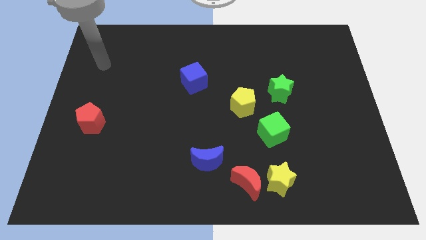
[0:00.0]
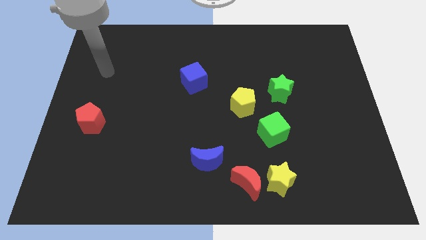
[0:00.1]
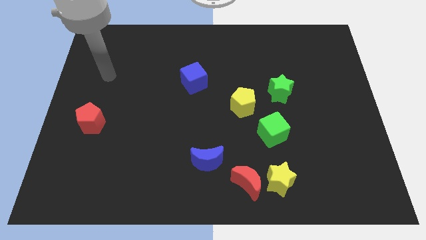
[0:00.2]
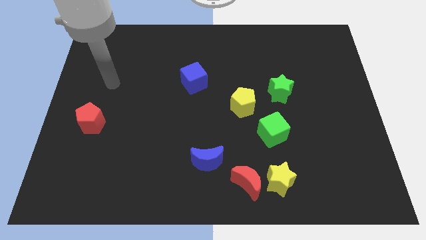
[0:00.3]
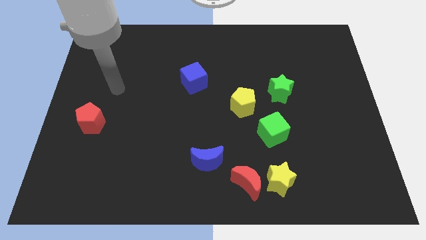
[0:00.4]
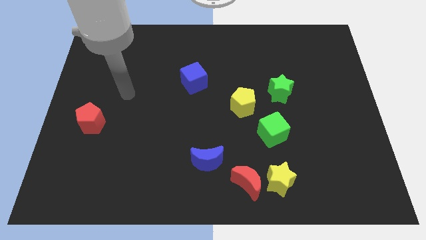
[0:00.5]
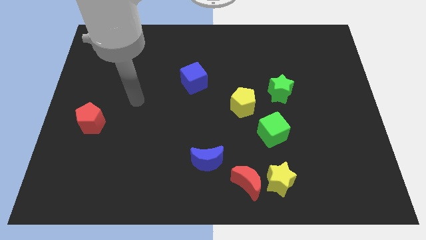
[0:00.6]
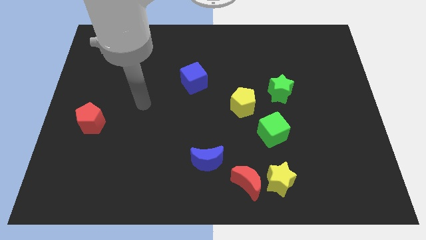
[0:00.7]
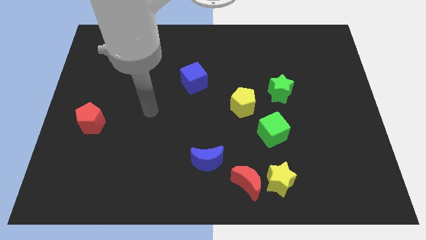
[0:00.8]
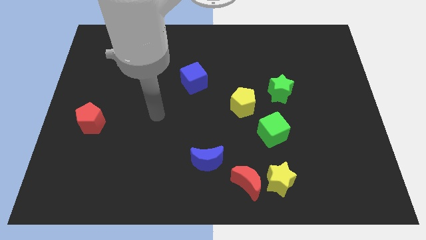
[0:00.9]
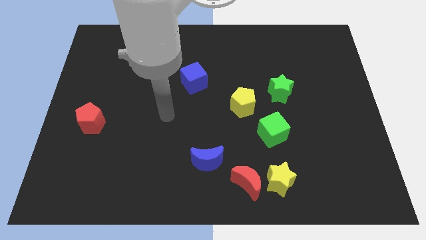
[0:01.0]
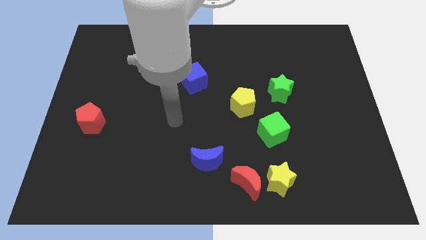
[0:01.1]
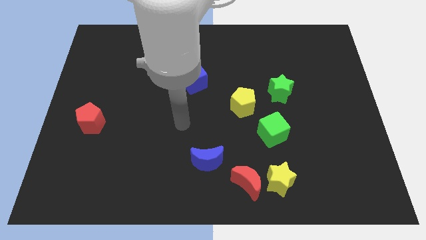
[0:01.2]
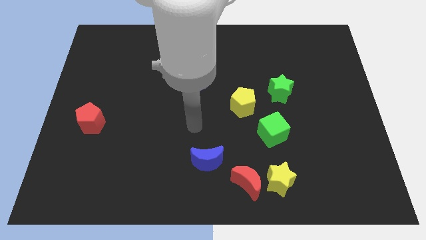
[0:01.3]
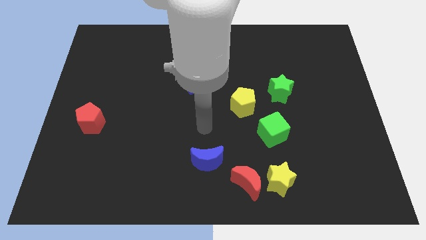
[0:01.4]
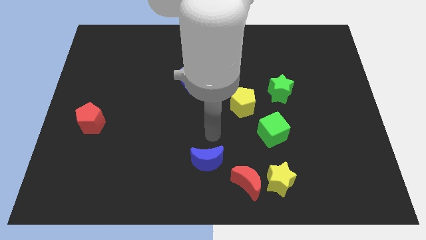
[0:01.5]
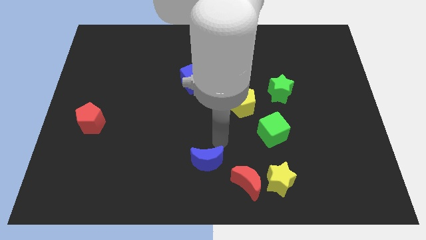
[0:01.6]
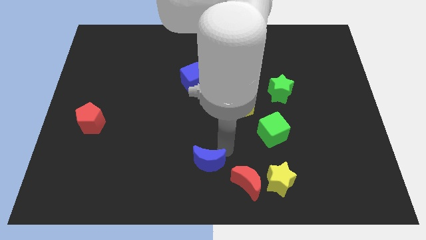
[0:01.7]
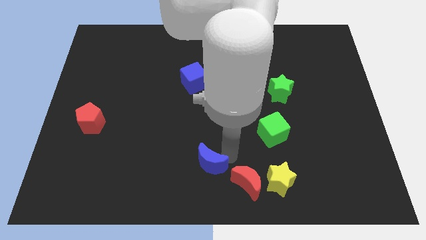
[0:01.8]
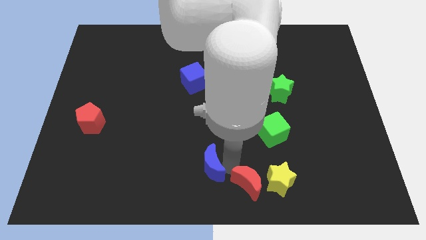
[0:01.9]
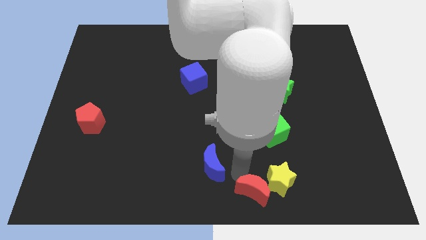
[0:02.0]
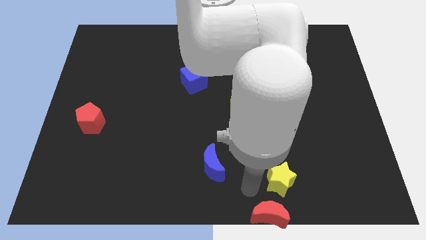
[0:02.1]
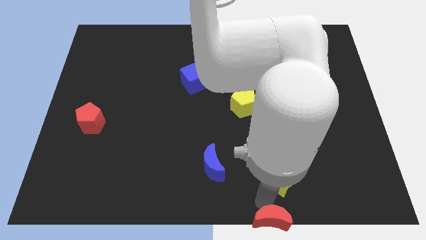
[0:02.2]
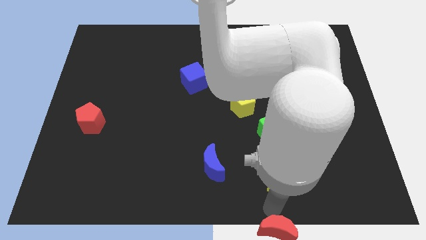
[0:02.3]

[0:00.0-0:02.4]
pull the yellow star apart from the red moon

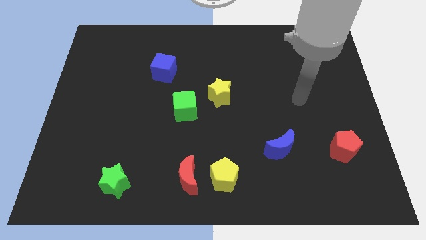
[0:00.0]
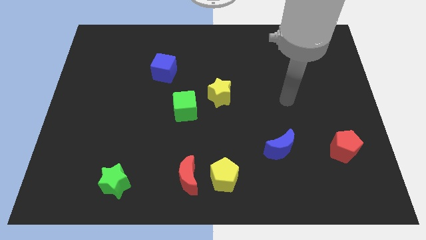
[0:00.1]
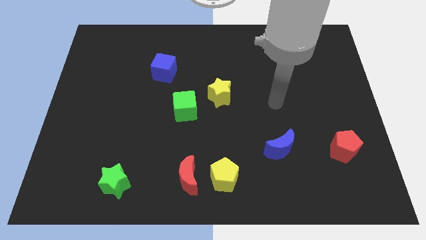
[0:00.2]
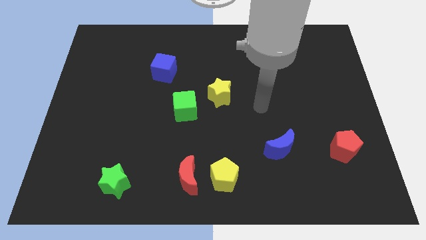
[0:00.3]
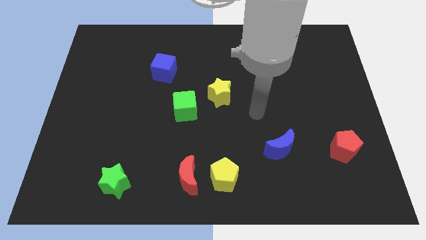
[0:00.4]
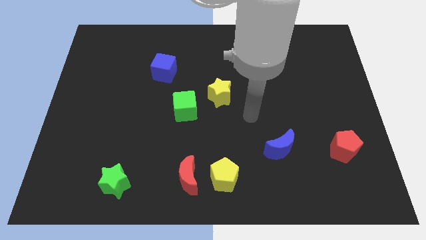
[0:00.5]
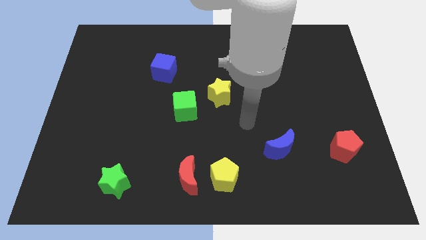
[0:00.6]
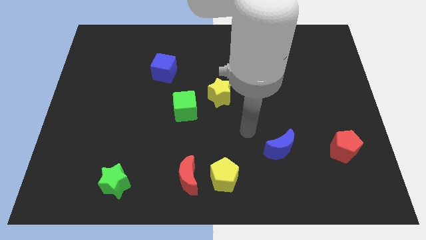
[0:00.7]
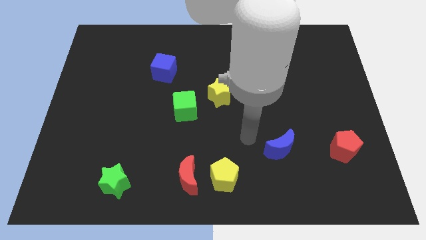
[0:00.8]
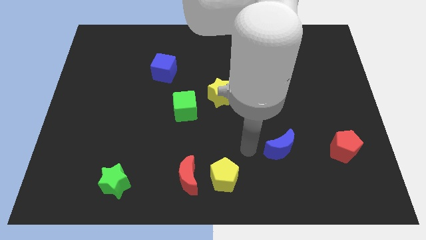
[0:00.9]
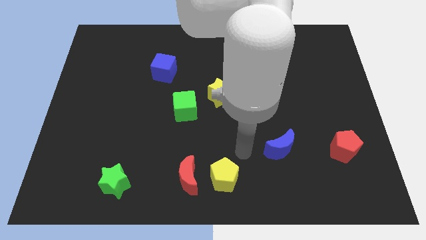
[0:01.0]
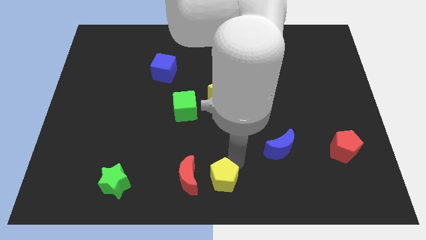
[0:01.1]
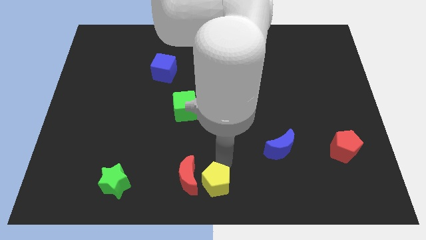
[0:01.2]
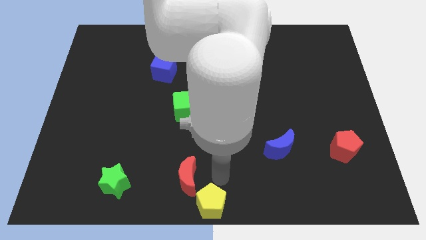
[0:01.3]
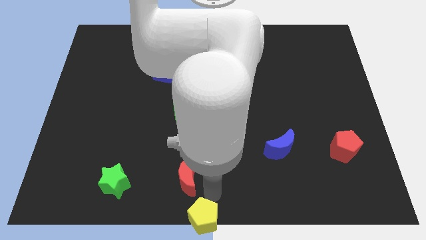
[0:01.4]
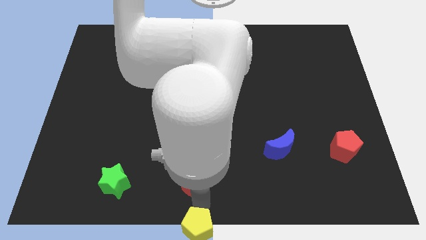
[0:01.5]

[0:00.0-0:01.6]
pull the red moon apart from the yellow pentagon

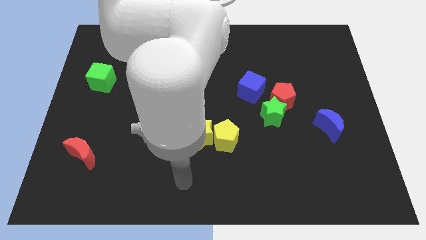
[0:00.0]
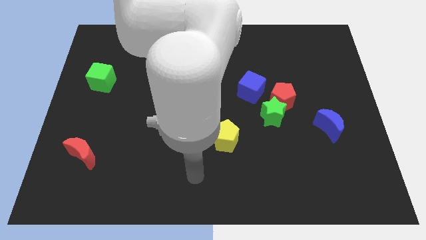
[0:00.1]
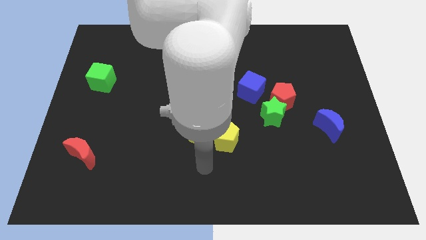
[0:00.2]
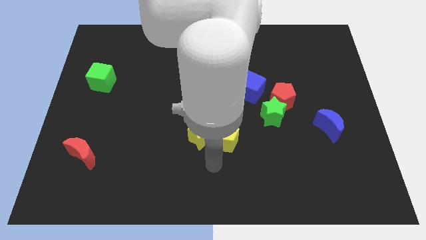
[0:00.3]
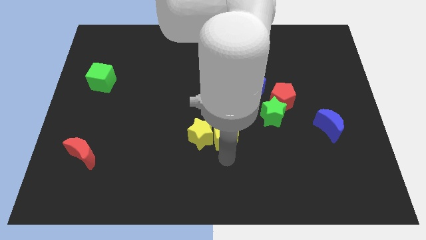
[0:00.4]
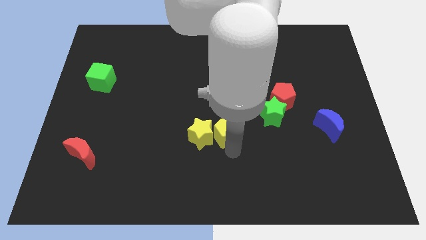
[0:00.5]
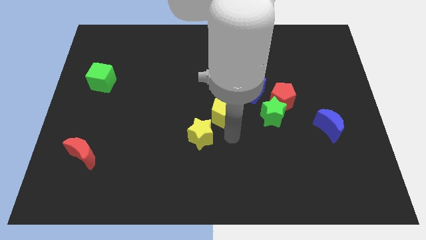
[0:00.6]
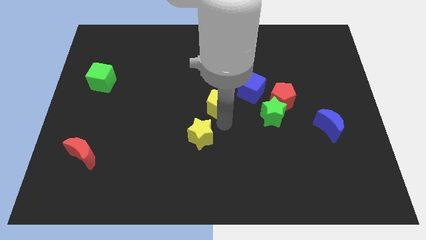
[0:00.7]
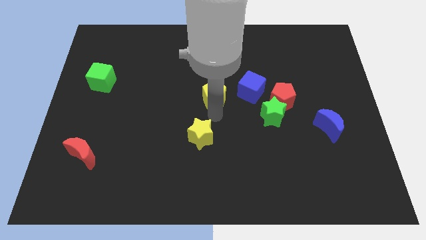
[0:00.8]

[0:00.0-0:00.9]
move the yellow star away from the yellow pentagon

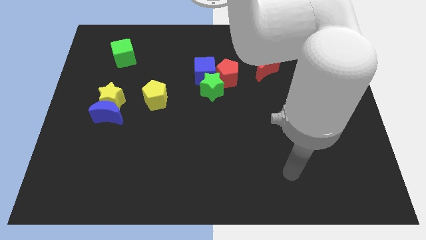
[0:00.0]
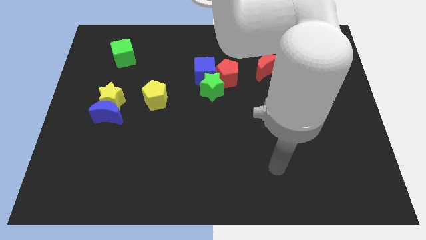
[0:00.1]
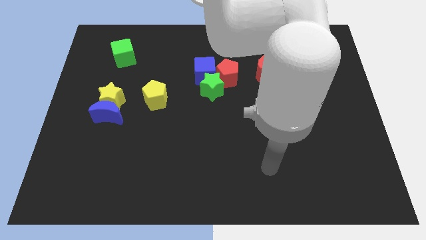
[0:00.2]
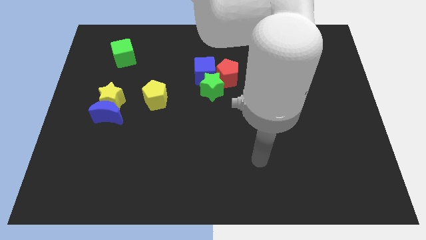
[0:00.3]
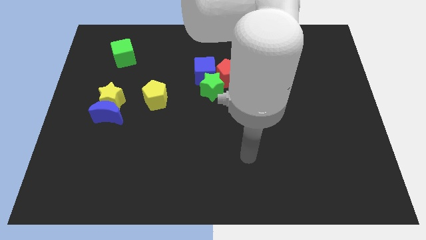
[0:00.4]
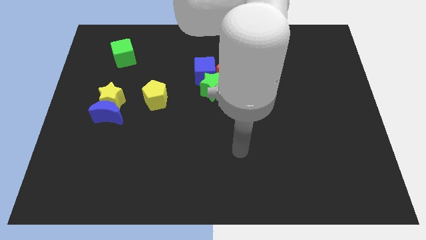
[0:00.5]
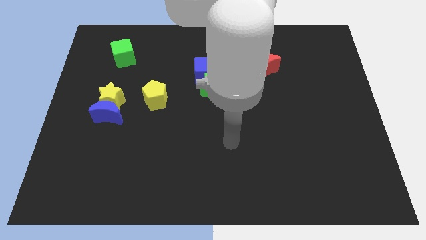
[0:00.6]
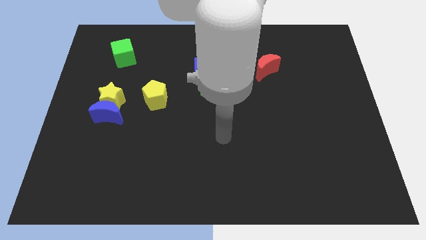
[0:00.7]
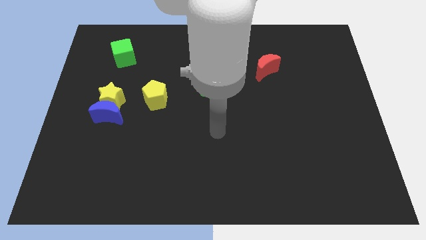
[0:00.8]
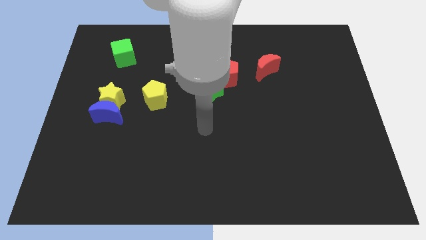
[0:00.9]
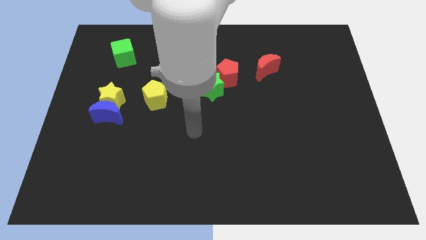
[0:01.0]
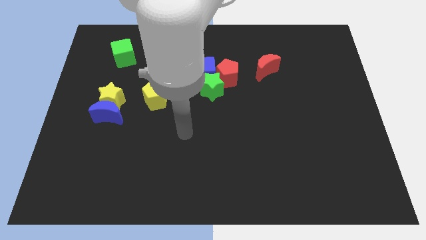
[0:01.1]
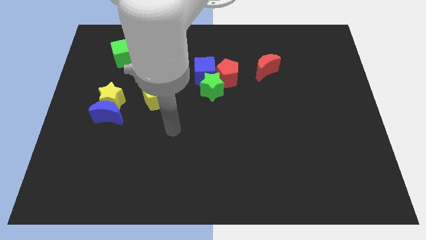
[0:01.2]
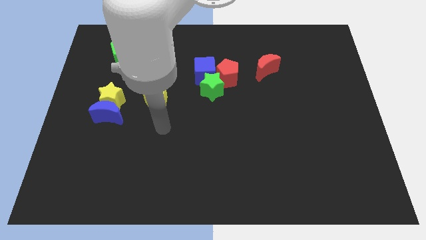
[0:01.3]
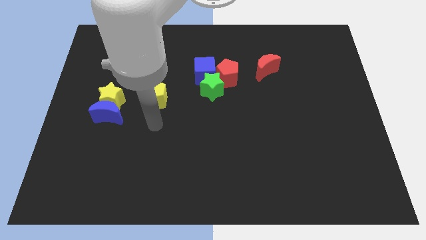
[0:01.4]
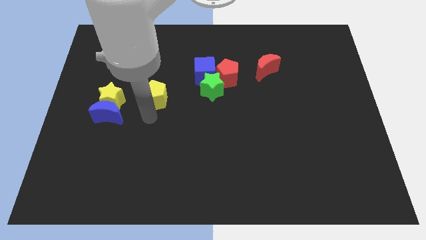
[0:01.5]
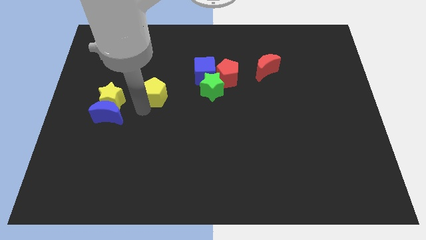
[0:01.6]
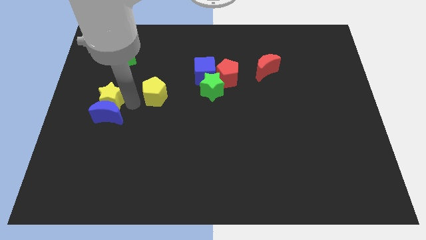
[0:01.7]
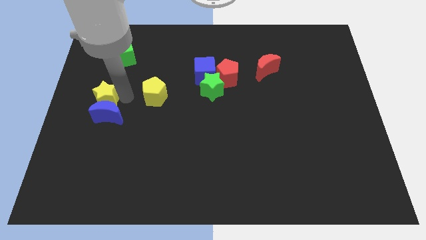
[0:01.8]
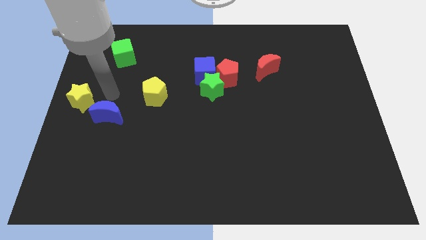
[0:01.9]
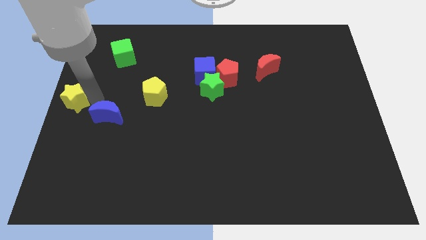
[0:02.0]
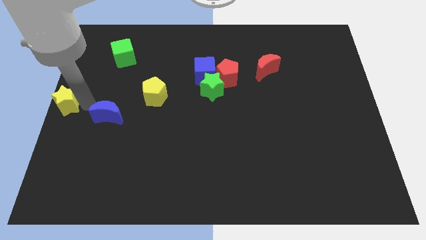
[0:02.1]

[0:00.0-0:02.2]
separate the blue moon from the yellow star

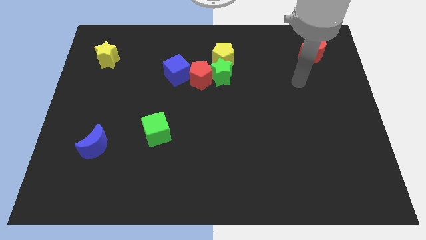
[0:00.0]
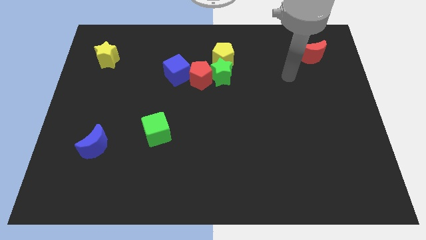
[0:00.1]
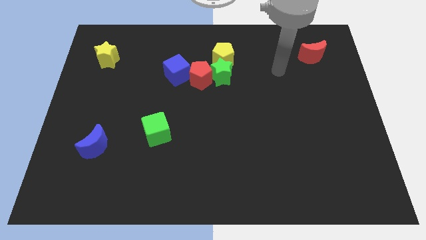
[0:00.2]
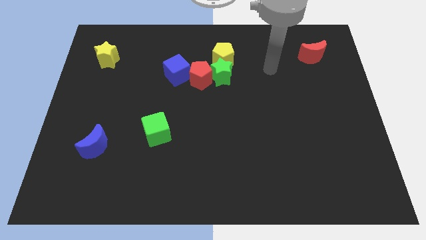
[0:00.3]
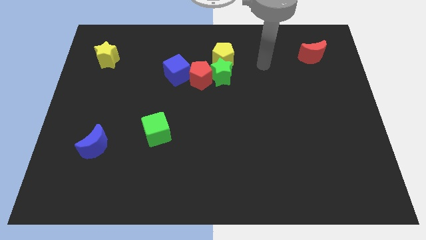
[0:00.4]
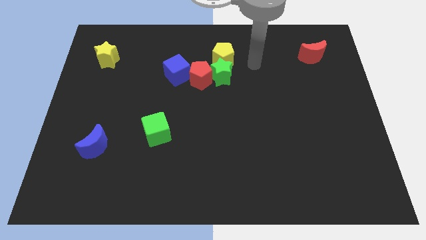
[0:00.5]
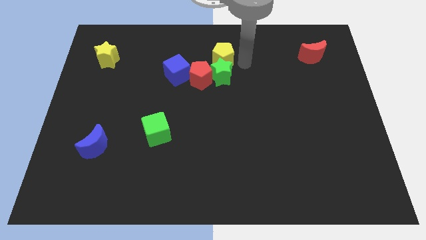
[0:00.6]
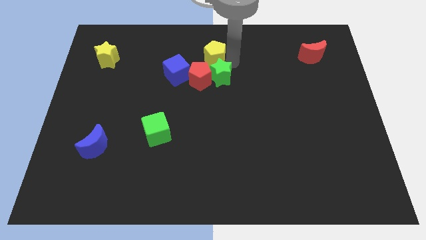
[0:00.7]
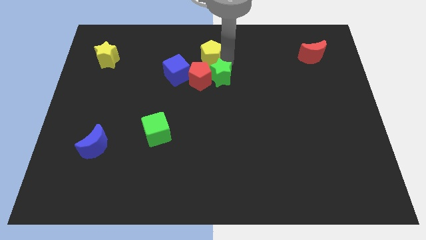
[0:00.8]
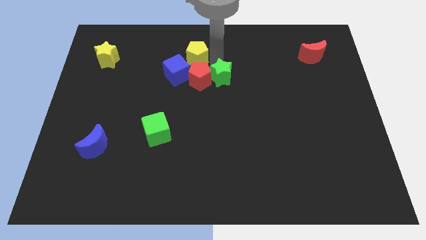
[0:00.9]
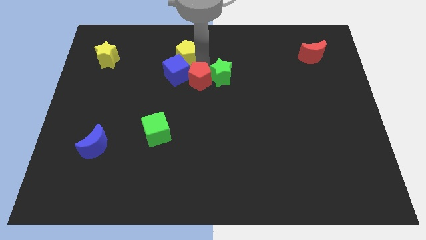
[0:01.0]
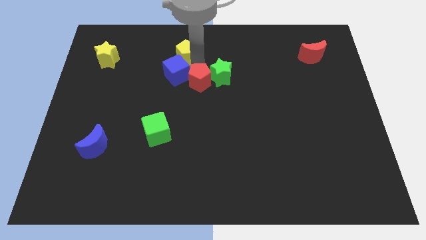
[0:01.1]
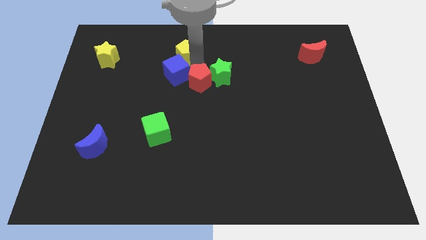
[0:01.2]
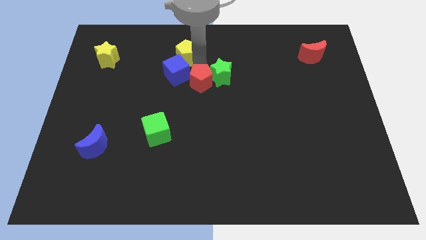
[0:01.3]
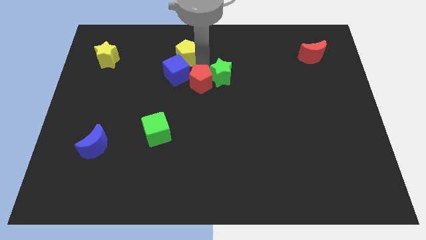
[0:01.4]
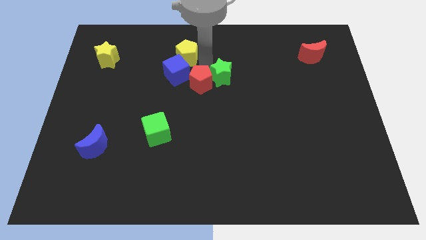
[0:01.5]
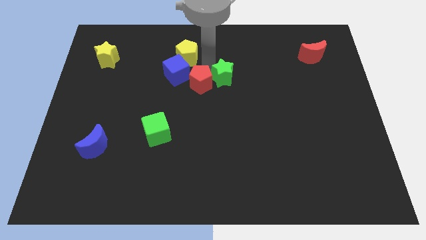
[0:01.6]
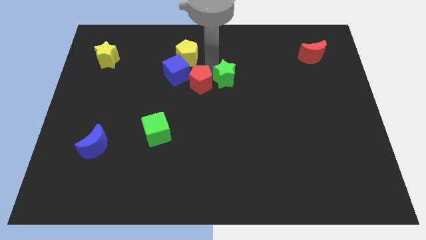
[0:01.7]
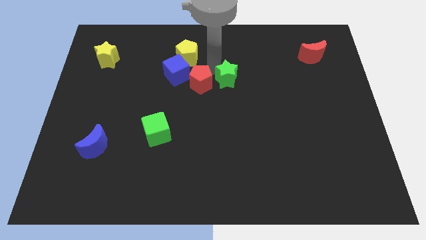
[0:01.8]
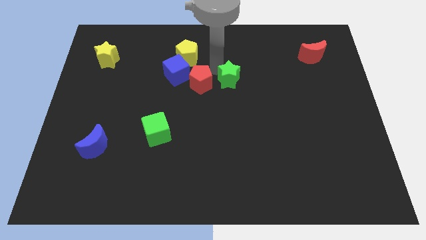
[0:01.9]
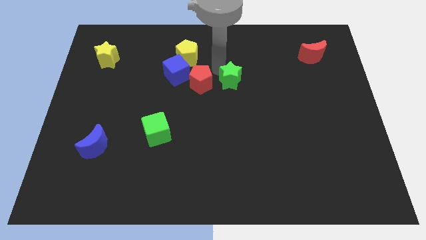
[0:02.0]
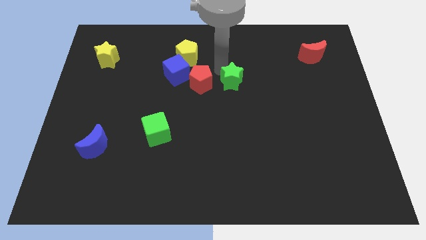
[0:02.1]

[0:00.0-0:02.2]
separate the green star from the red pentagon and yellow pentagon
